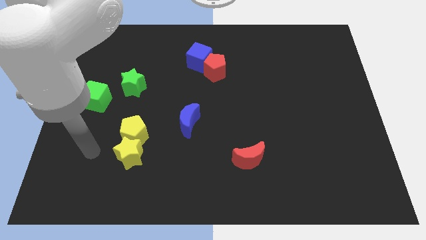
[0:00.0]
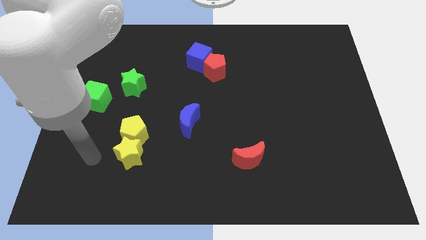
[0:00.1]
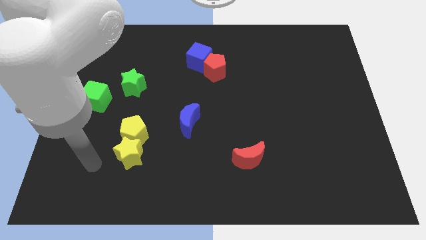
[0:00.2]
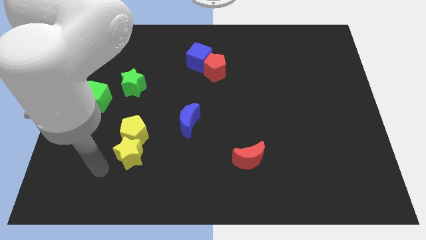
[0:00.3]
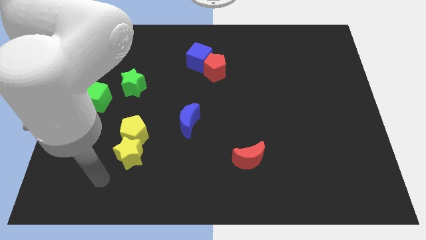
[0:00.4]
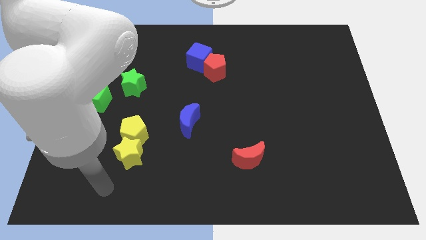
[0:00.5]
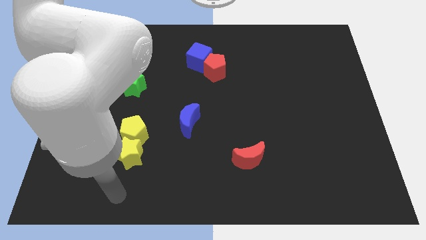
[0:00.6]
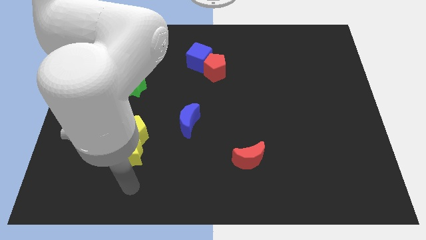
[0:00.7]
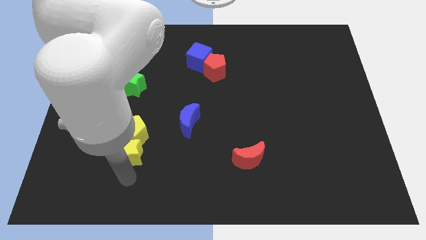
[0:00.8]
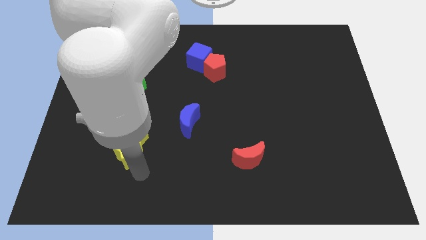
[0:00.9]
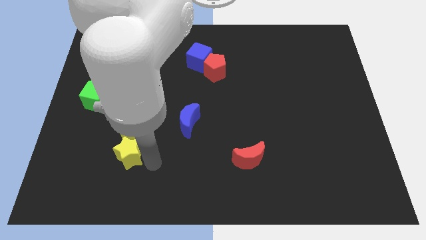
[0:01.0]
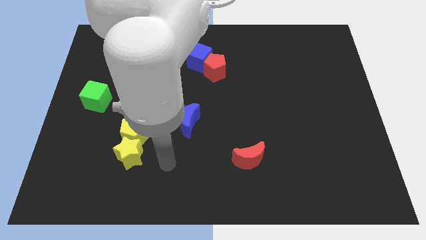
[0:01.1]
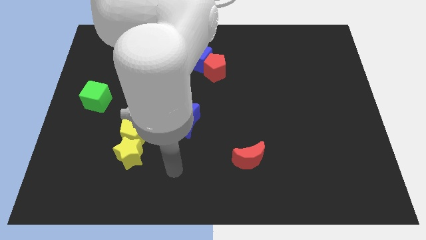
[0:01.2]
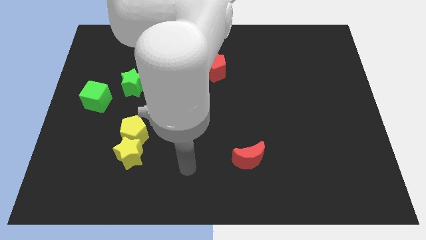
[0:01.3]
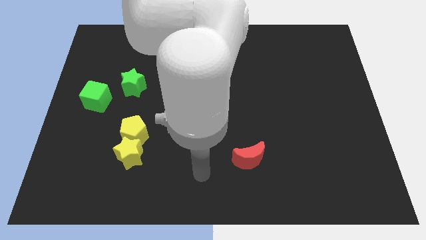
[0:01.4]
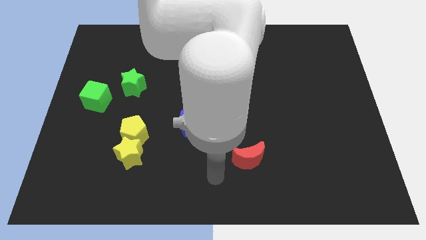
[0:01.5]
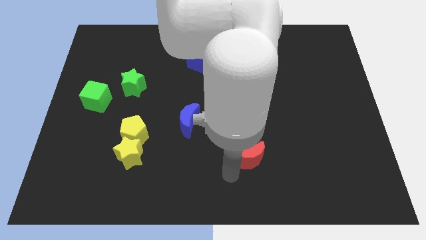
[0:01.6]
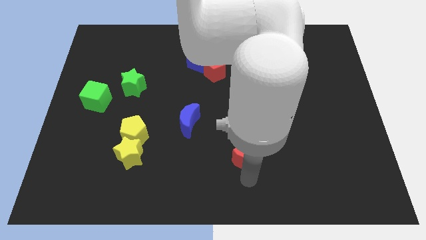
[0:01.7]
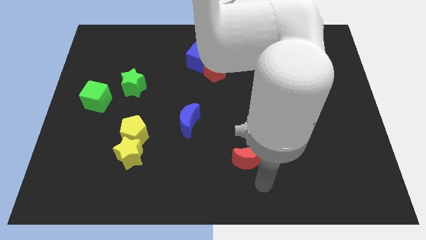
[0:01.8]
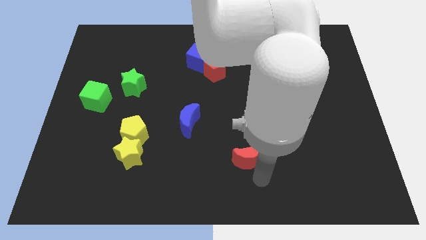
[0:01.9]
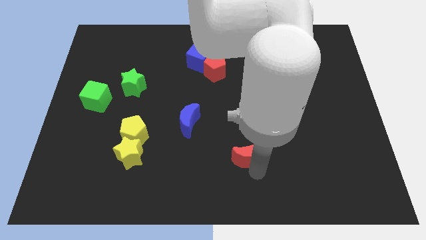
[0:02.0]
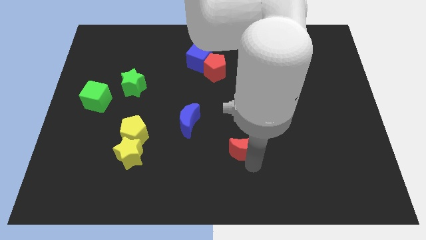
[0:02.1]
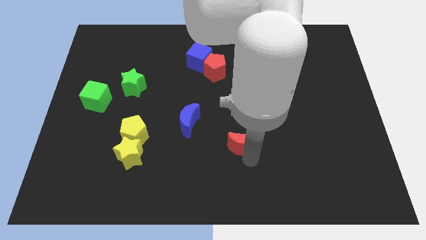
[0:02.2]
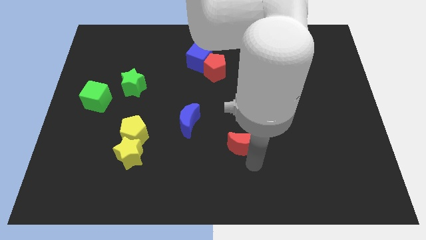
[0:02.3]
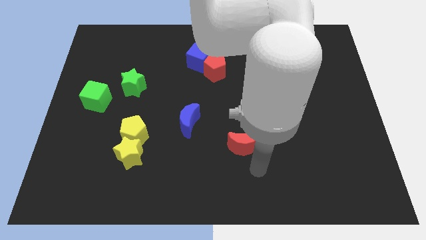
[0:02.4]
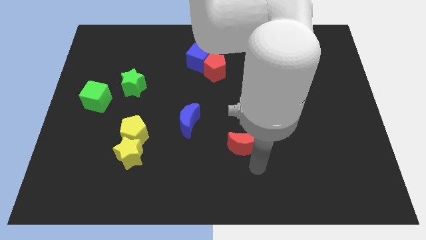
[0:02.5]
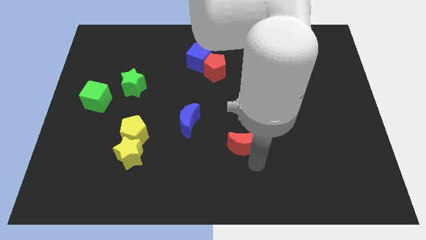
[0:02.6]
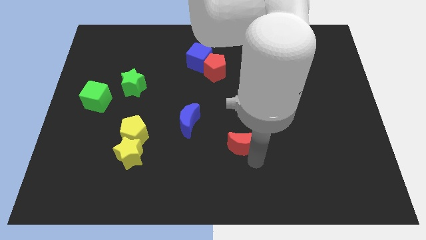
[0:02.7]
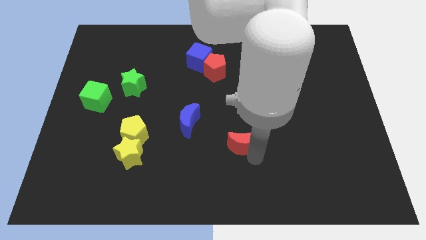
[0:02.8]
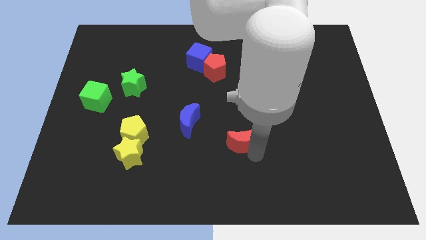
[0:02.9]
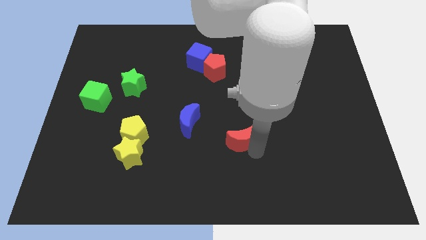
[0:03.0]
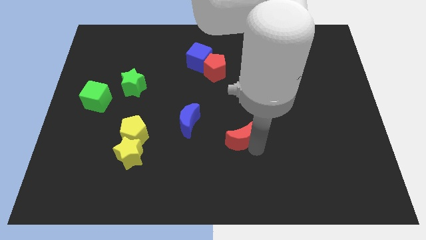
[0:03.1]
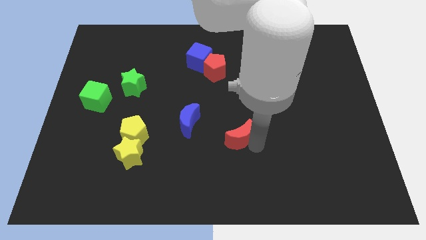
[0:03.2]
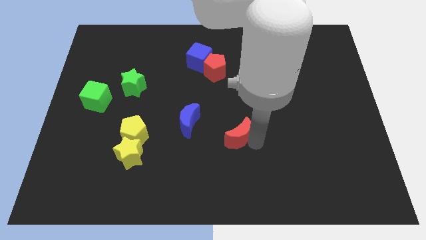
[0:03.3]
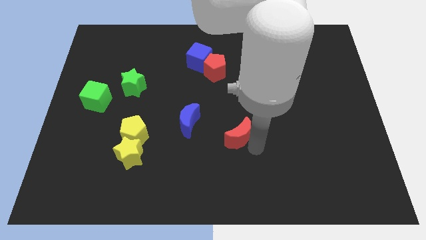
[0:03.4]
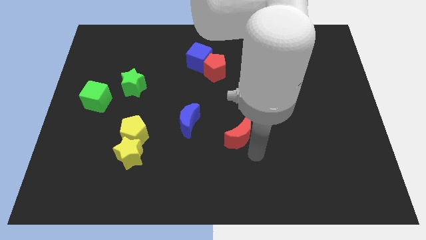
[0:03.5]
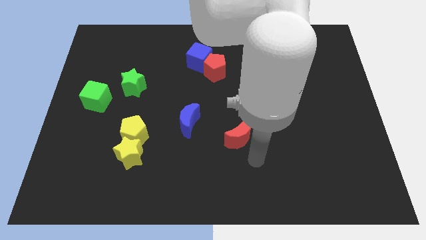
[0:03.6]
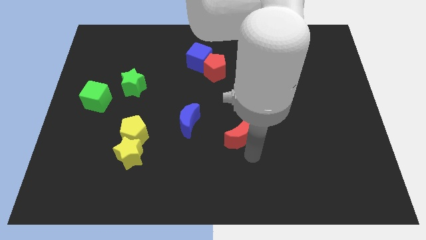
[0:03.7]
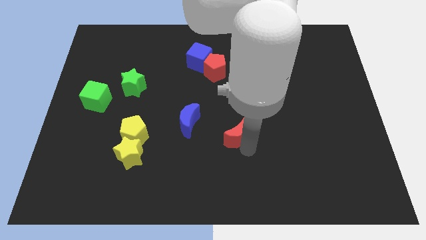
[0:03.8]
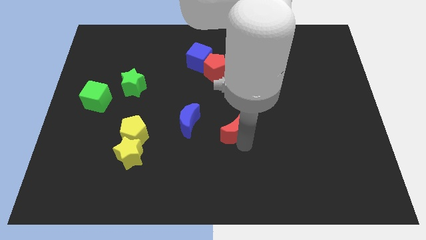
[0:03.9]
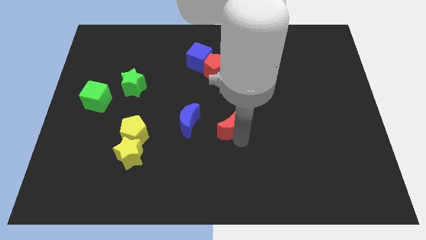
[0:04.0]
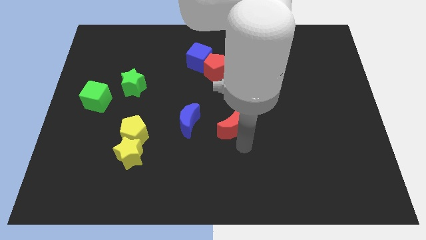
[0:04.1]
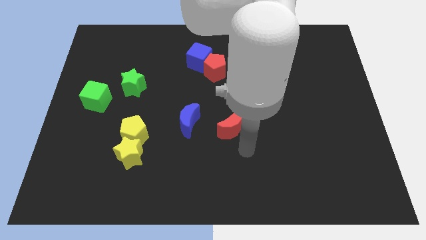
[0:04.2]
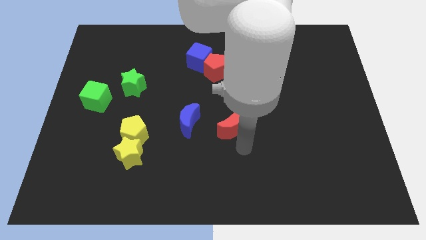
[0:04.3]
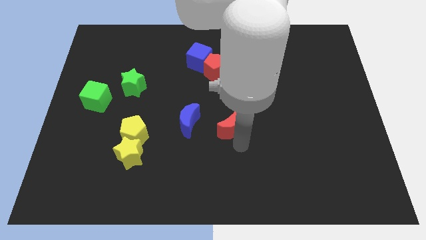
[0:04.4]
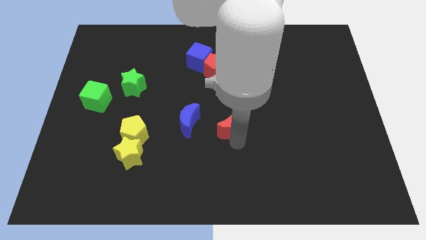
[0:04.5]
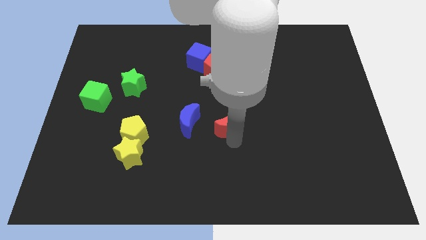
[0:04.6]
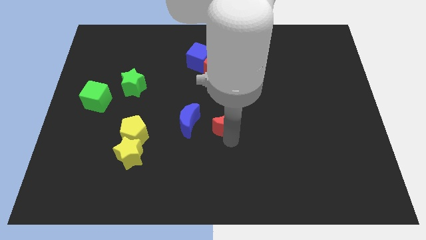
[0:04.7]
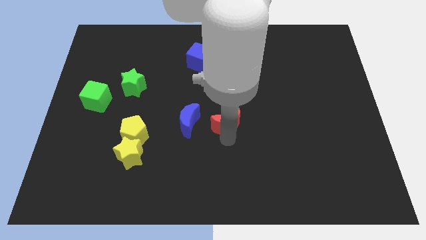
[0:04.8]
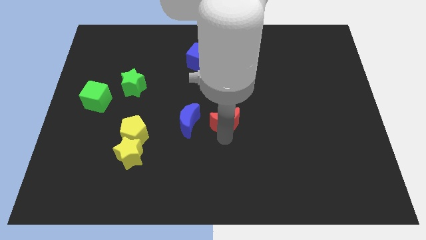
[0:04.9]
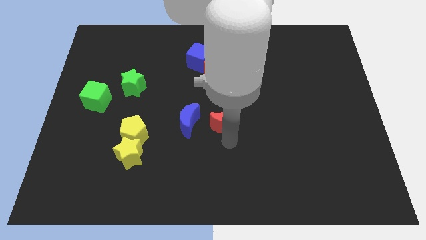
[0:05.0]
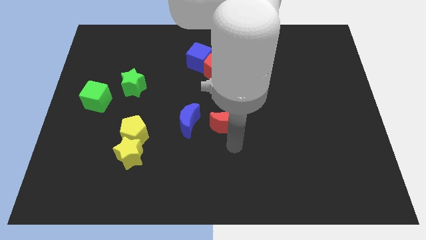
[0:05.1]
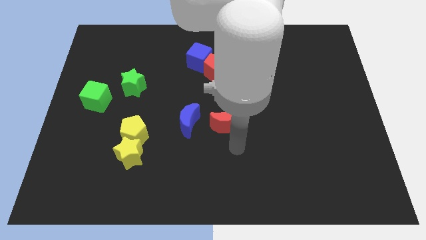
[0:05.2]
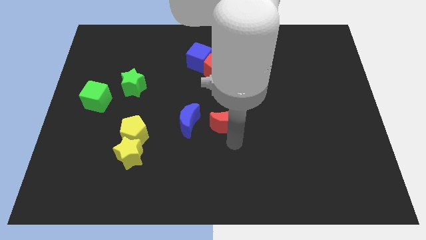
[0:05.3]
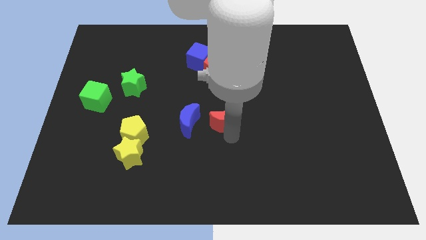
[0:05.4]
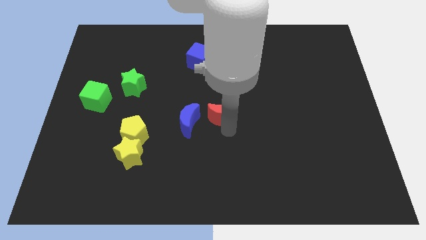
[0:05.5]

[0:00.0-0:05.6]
put the red moon below the red pentagon

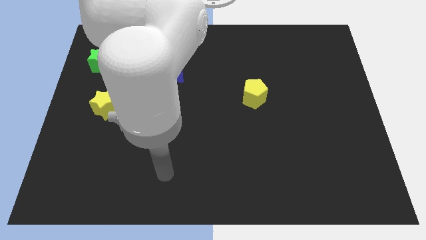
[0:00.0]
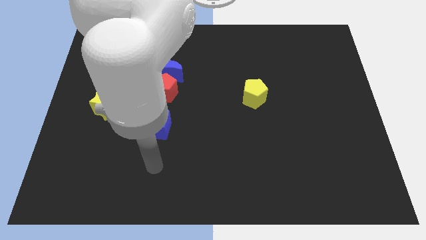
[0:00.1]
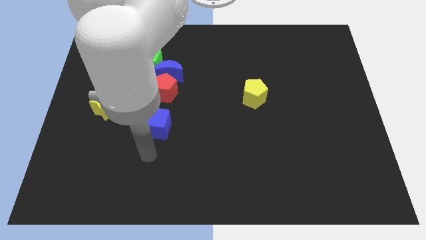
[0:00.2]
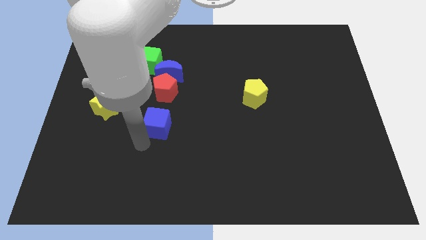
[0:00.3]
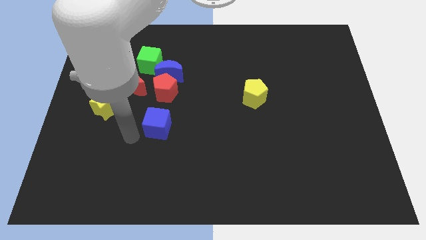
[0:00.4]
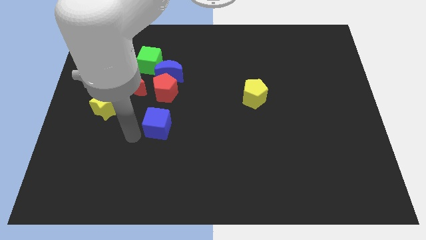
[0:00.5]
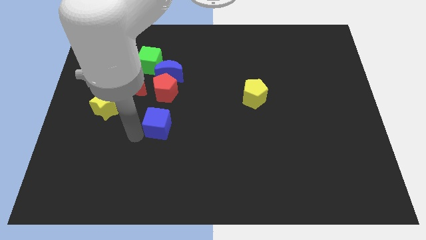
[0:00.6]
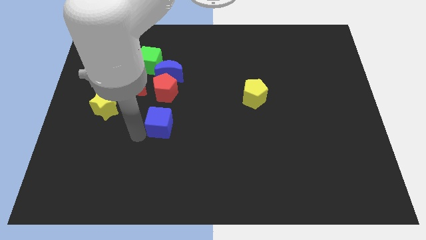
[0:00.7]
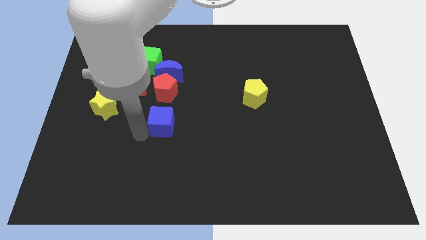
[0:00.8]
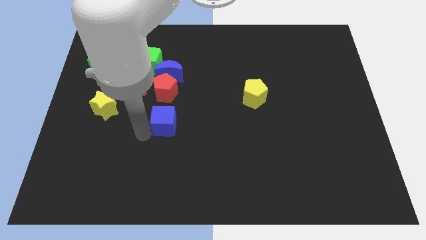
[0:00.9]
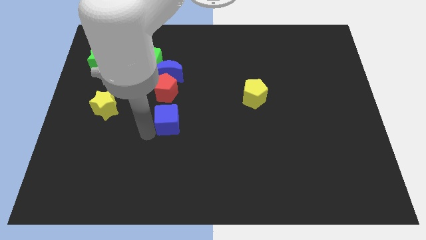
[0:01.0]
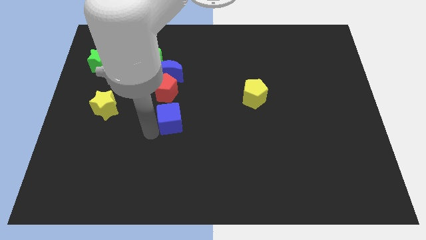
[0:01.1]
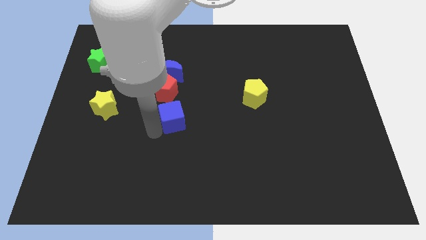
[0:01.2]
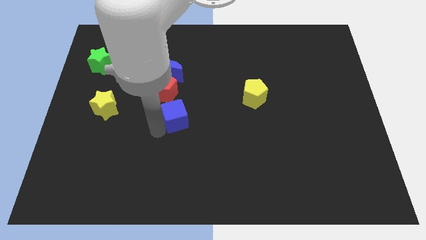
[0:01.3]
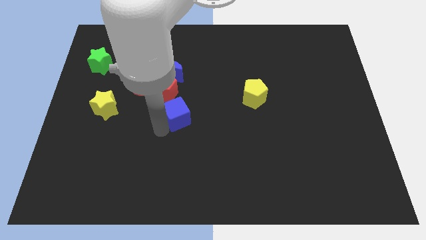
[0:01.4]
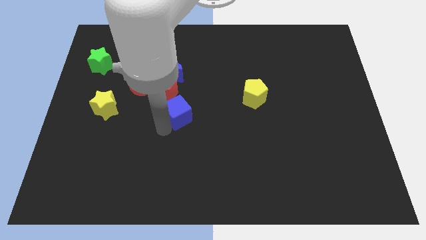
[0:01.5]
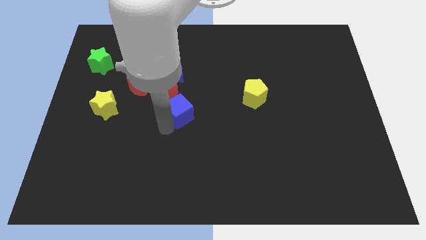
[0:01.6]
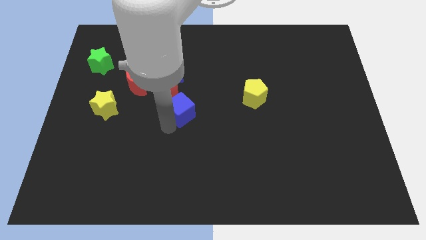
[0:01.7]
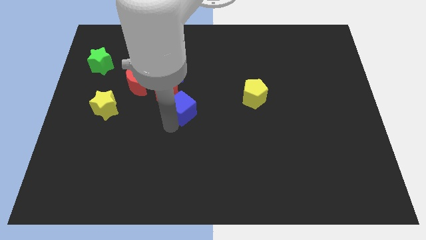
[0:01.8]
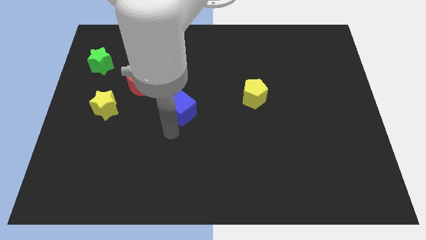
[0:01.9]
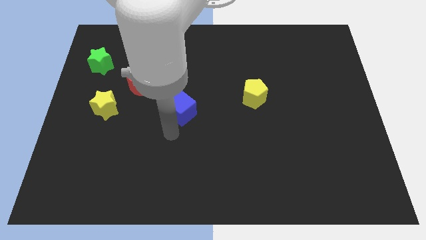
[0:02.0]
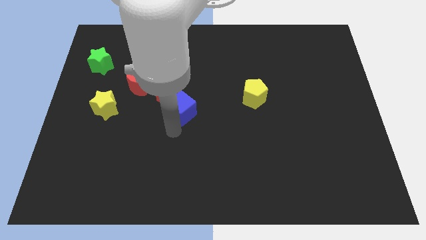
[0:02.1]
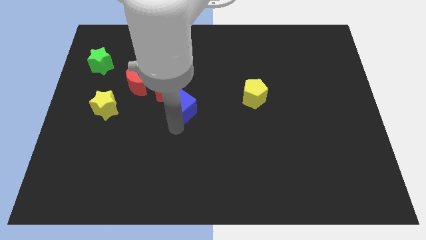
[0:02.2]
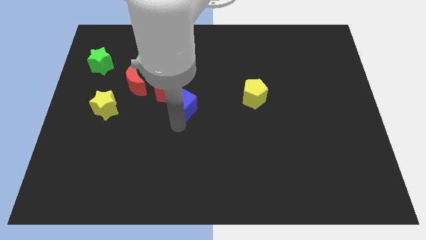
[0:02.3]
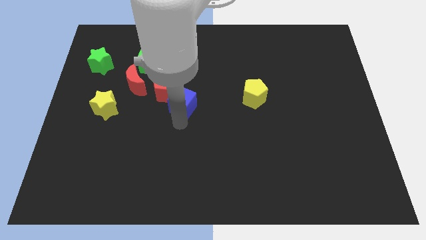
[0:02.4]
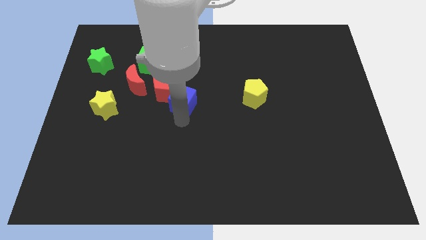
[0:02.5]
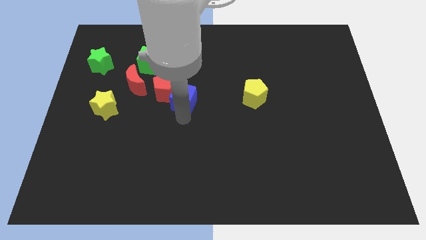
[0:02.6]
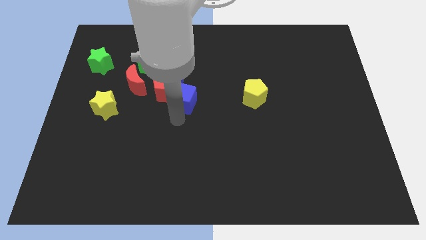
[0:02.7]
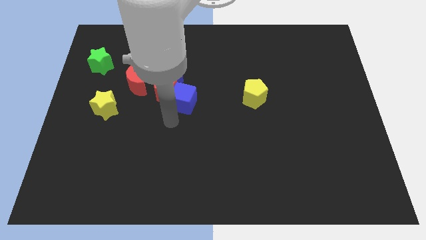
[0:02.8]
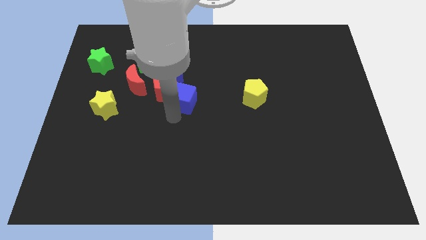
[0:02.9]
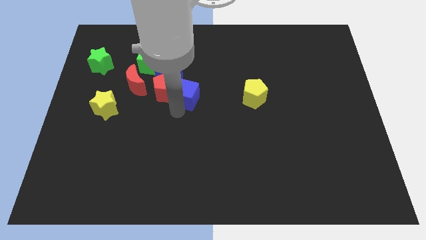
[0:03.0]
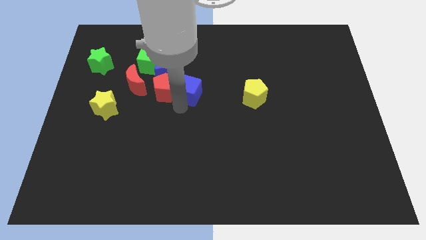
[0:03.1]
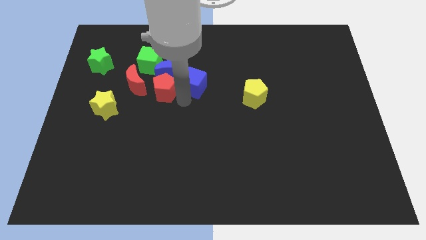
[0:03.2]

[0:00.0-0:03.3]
slide the blue cube to the right side of the blue moon
